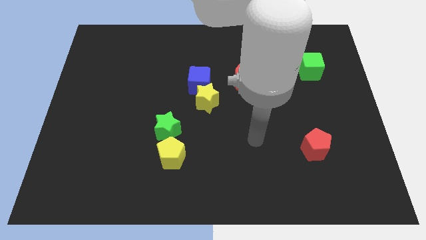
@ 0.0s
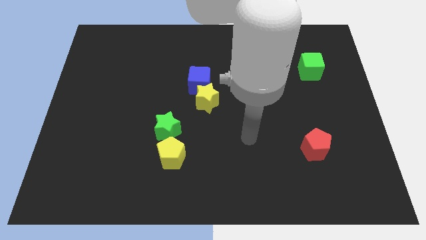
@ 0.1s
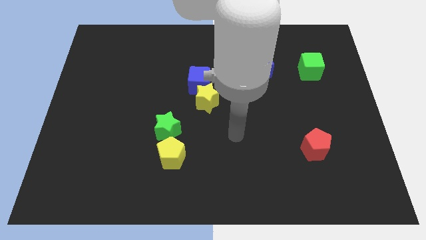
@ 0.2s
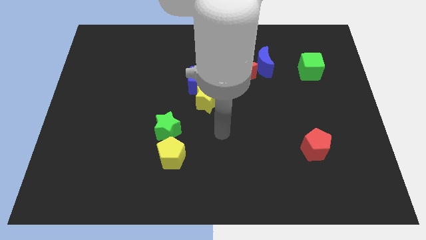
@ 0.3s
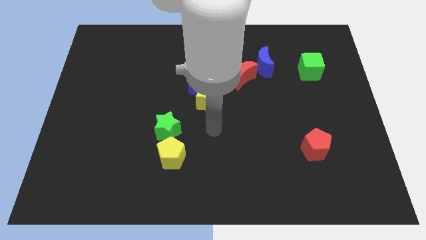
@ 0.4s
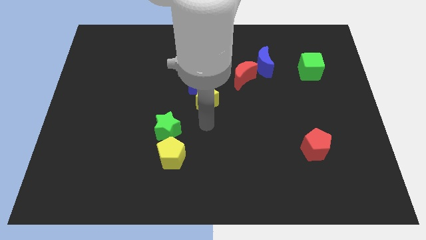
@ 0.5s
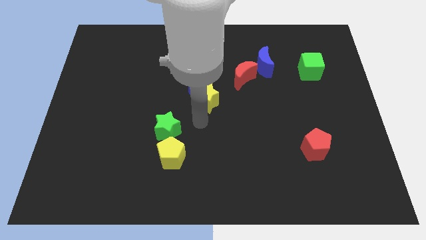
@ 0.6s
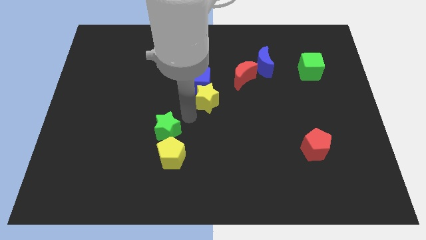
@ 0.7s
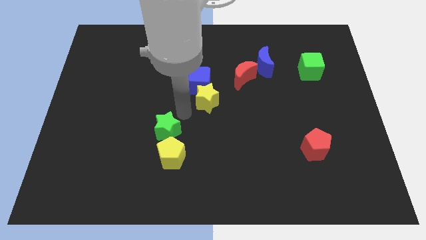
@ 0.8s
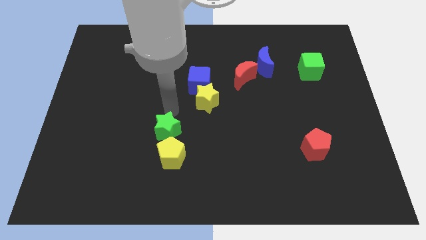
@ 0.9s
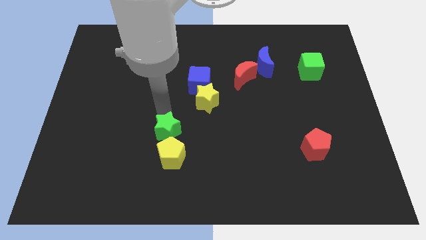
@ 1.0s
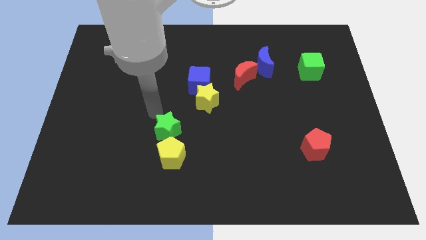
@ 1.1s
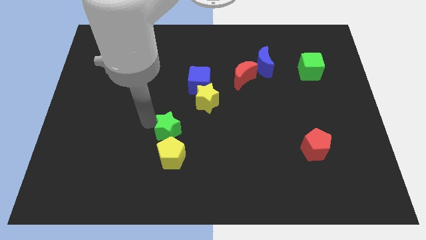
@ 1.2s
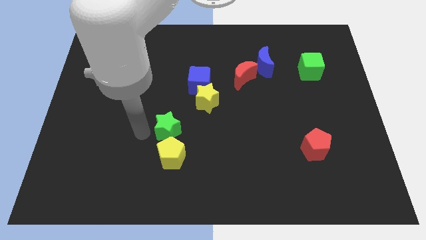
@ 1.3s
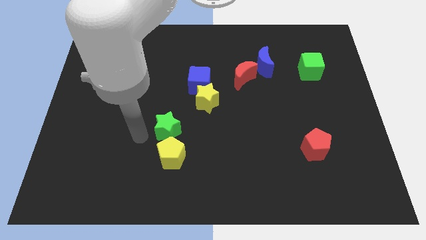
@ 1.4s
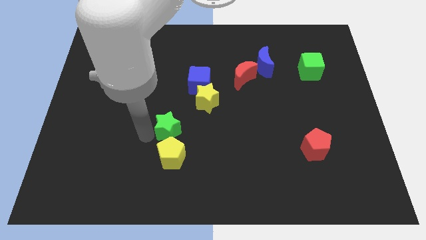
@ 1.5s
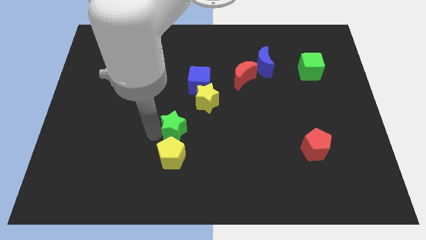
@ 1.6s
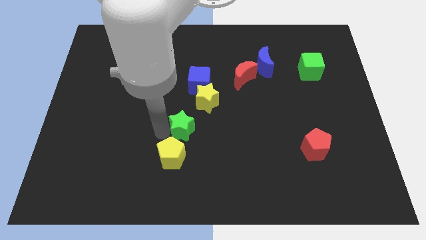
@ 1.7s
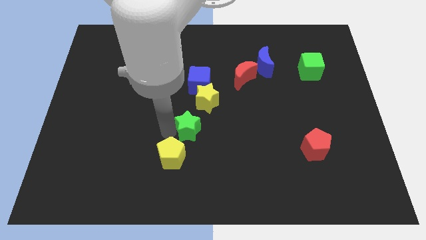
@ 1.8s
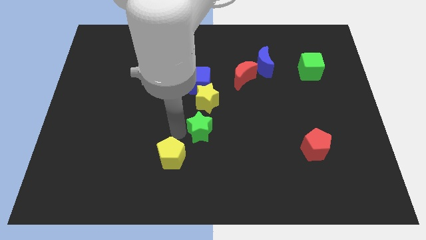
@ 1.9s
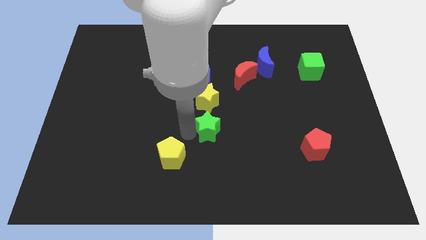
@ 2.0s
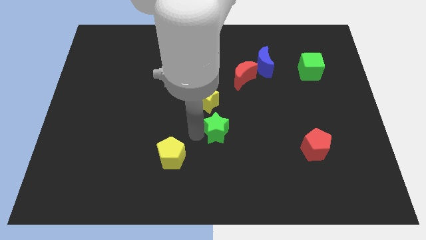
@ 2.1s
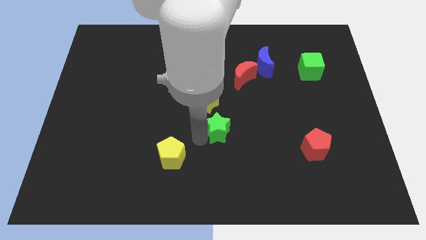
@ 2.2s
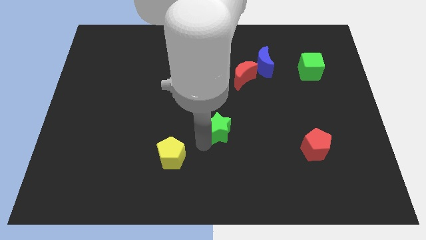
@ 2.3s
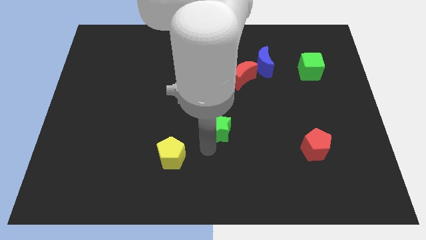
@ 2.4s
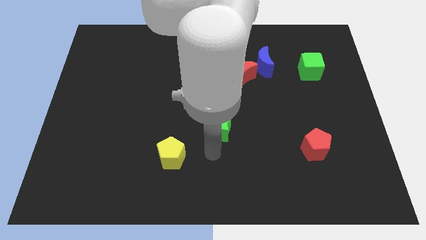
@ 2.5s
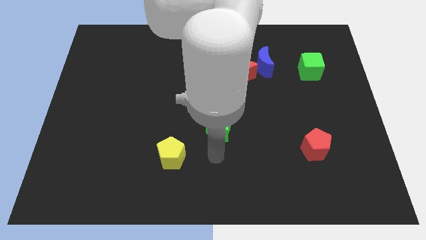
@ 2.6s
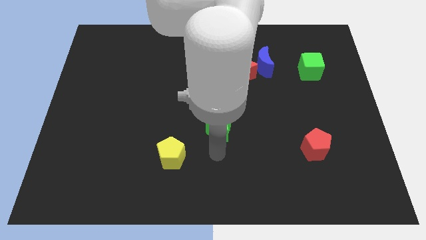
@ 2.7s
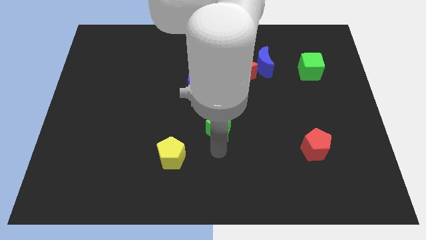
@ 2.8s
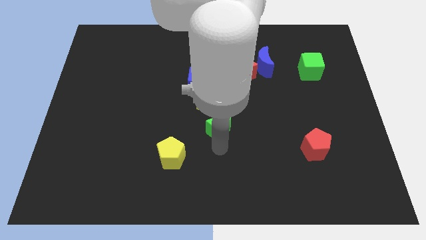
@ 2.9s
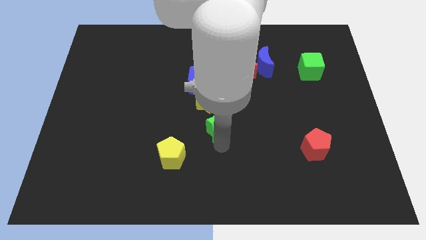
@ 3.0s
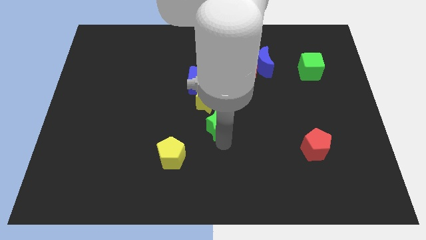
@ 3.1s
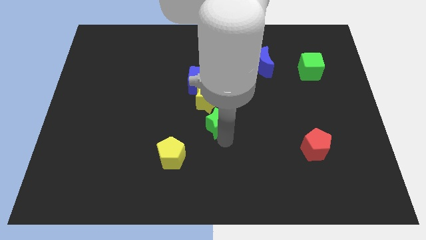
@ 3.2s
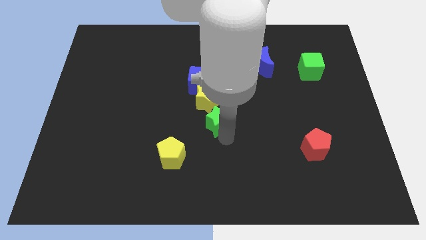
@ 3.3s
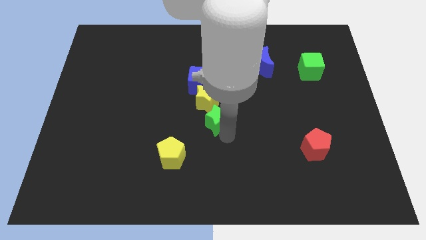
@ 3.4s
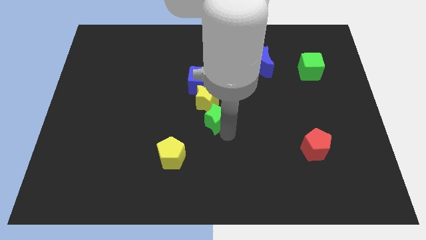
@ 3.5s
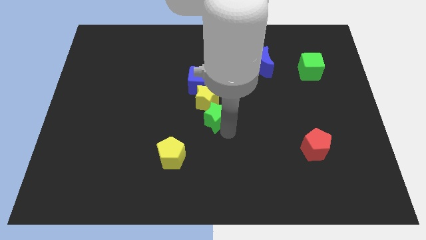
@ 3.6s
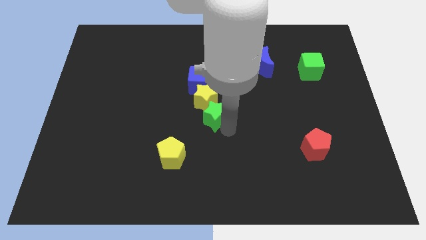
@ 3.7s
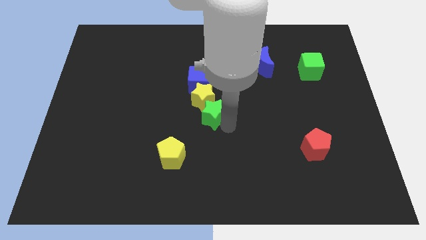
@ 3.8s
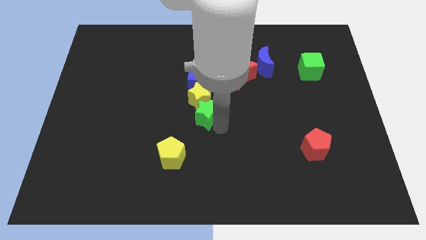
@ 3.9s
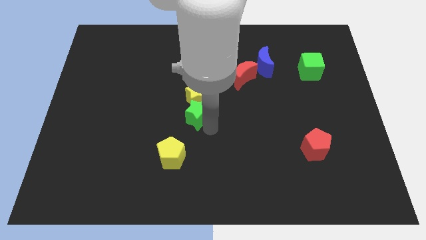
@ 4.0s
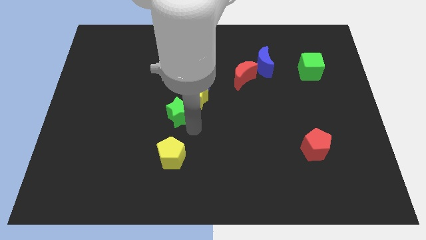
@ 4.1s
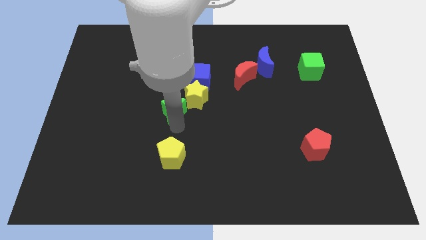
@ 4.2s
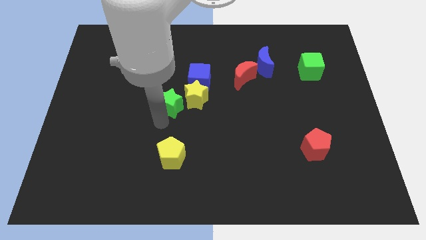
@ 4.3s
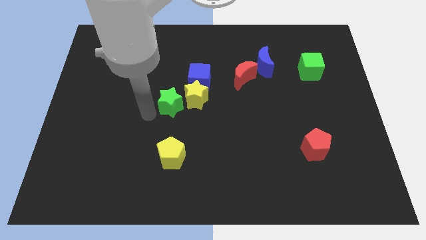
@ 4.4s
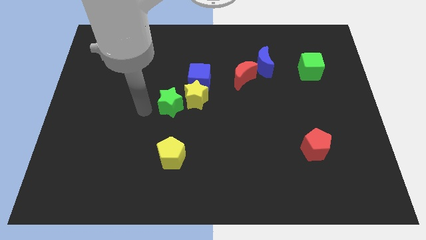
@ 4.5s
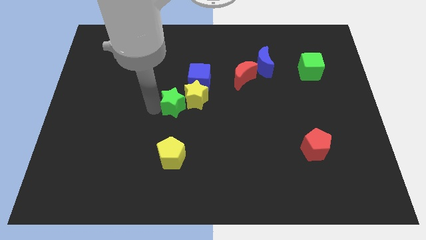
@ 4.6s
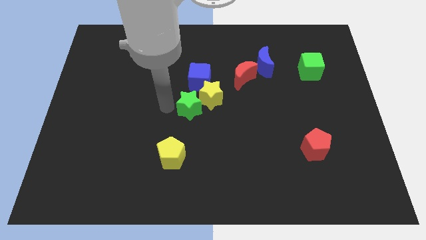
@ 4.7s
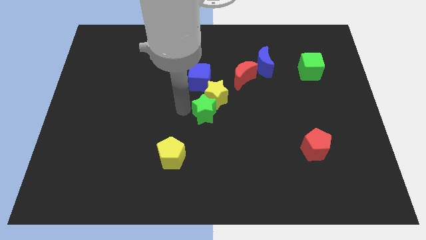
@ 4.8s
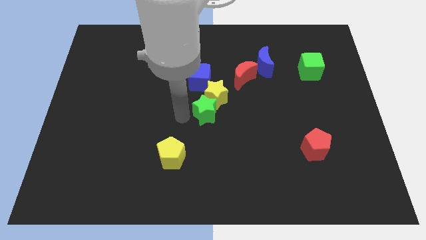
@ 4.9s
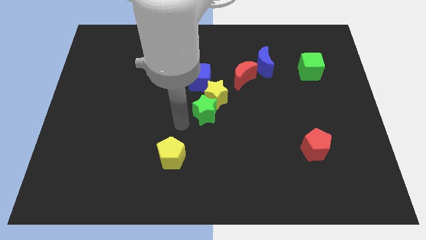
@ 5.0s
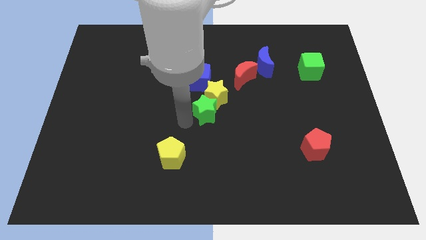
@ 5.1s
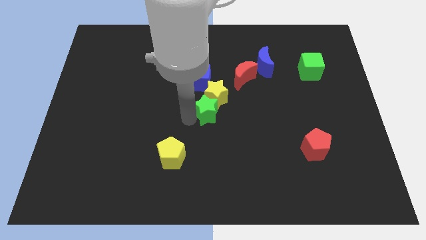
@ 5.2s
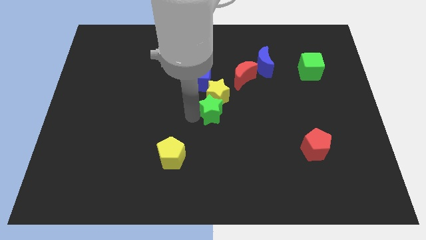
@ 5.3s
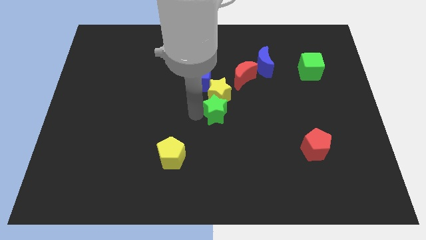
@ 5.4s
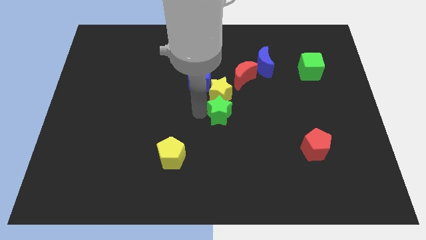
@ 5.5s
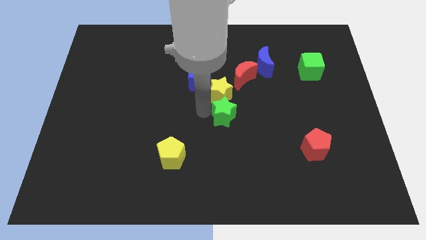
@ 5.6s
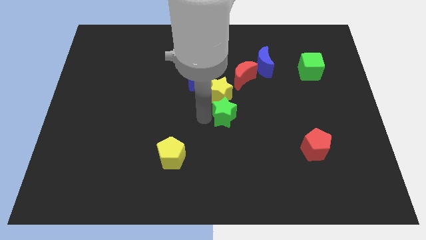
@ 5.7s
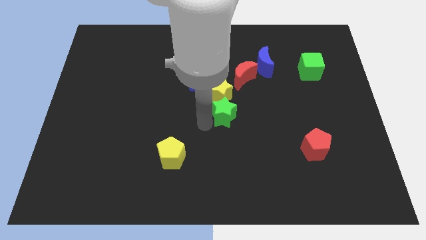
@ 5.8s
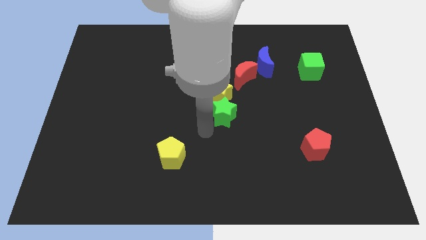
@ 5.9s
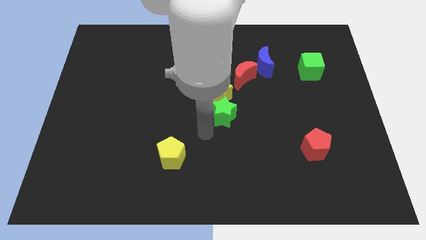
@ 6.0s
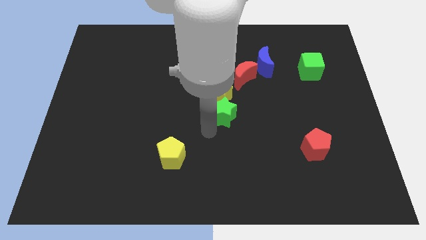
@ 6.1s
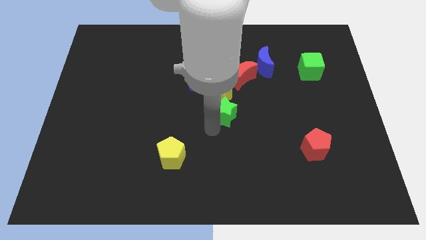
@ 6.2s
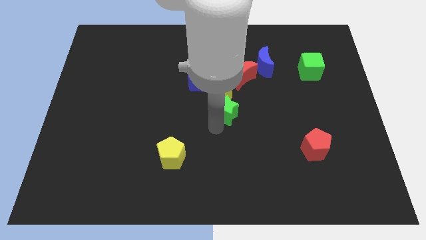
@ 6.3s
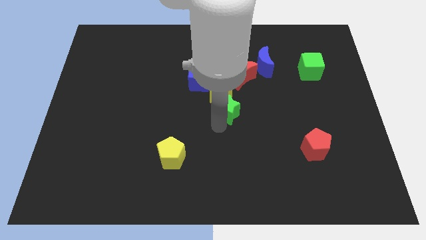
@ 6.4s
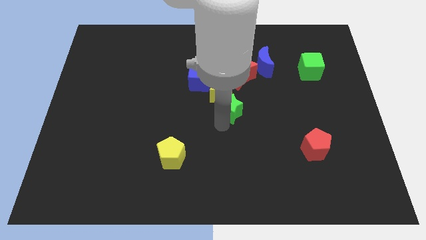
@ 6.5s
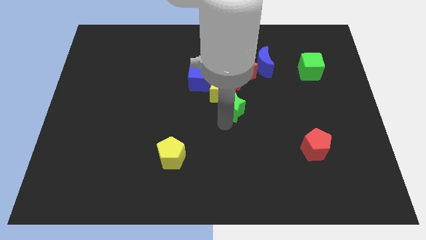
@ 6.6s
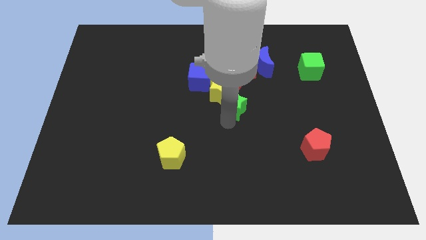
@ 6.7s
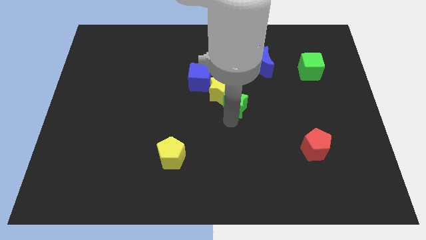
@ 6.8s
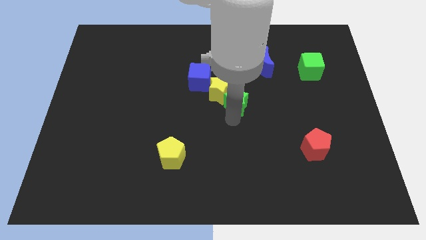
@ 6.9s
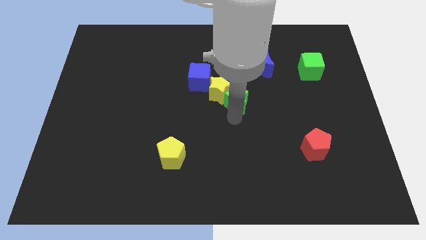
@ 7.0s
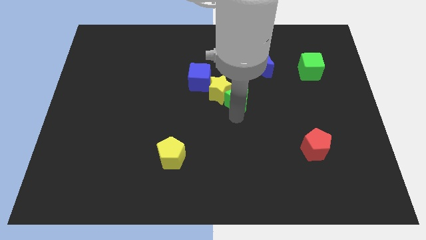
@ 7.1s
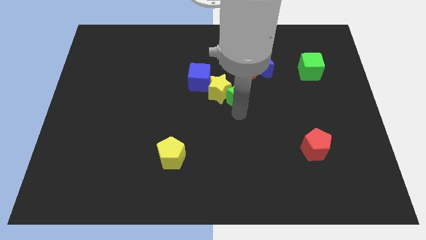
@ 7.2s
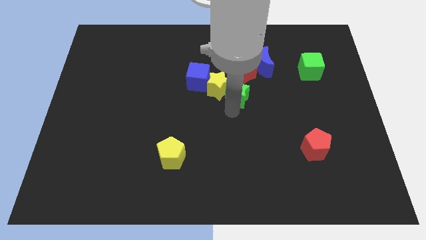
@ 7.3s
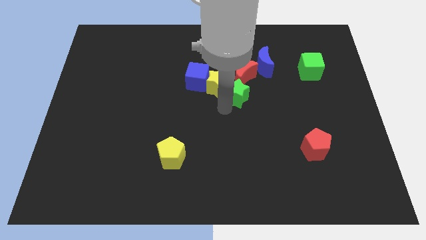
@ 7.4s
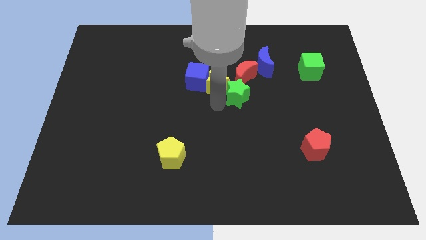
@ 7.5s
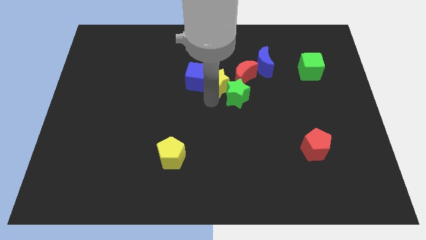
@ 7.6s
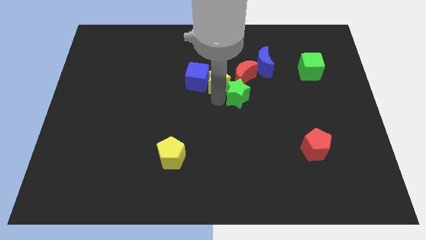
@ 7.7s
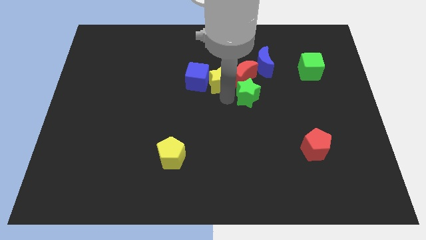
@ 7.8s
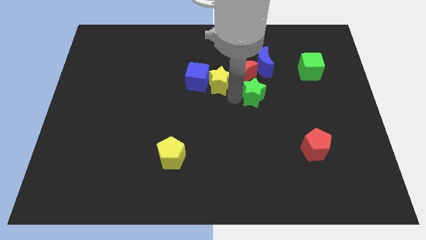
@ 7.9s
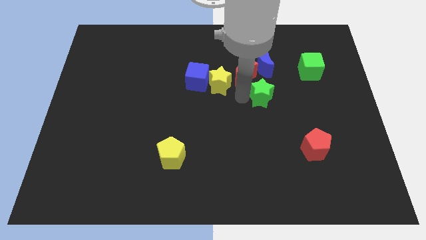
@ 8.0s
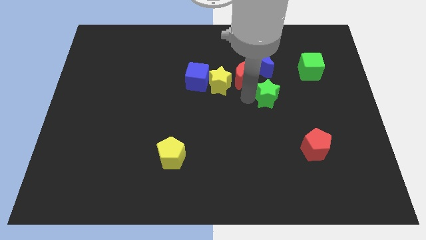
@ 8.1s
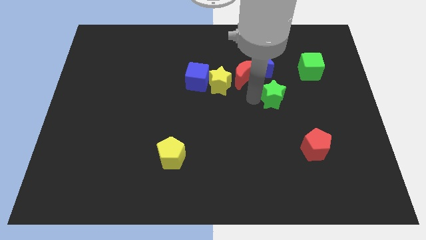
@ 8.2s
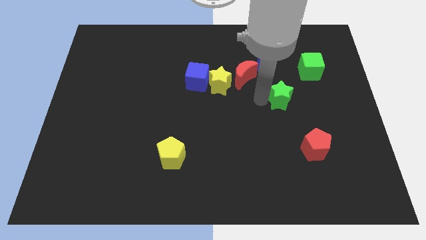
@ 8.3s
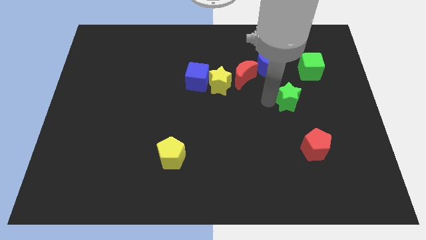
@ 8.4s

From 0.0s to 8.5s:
slide the green star to the bottom left of the green cube
